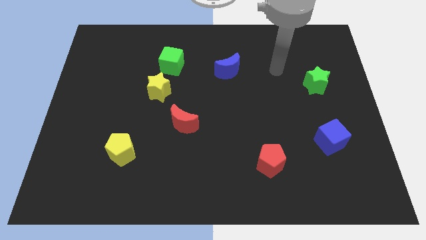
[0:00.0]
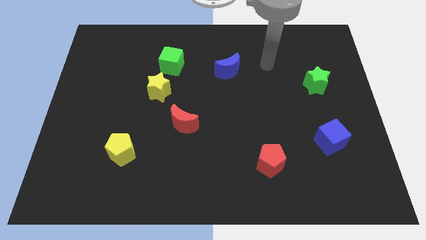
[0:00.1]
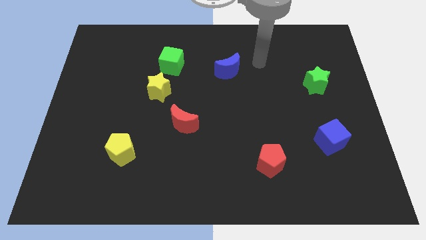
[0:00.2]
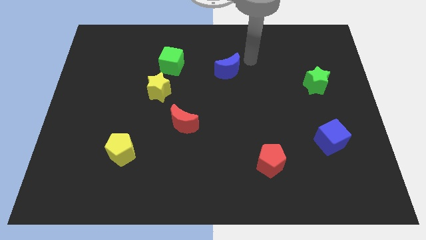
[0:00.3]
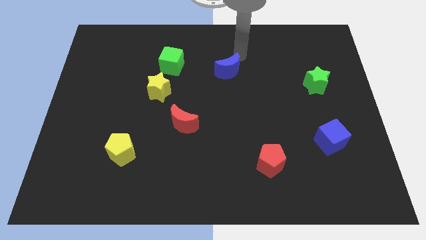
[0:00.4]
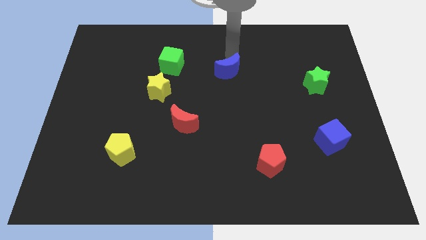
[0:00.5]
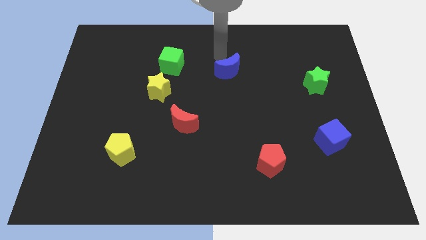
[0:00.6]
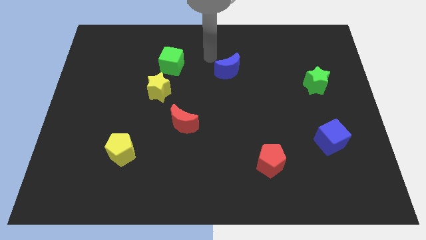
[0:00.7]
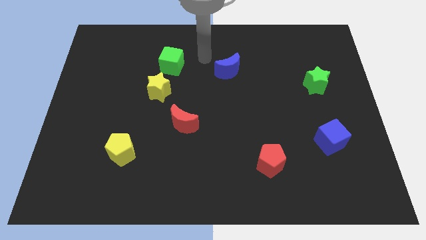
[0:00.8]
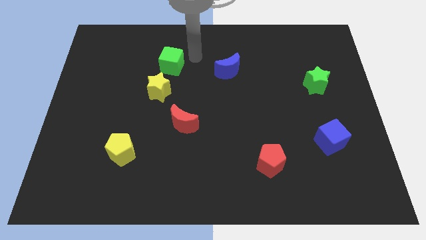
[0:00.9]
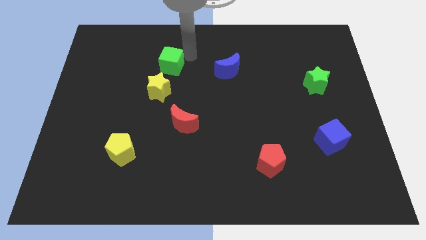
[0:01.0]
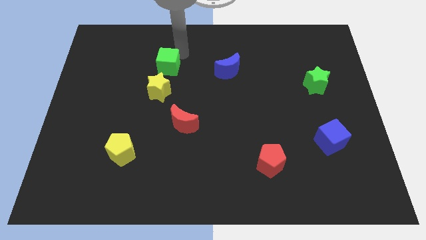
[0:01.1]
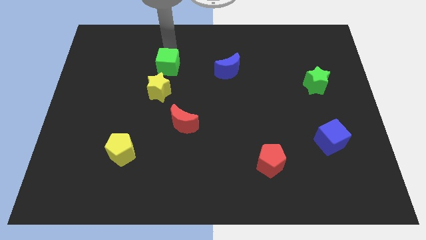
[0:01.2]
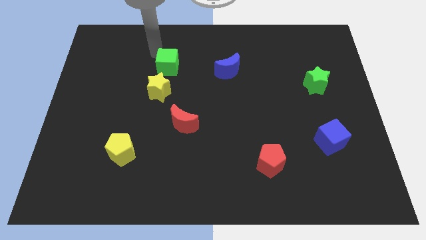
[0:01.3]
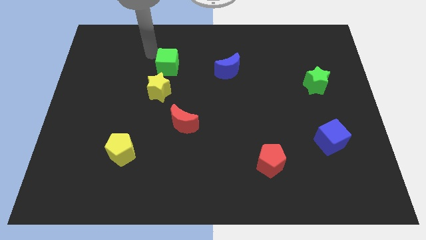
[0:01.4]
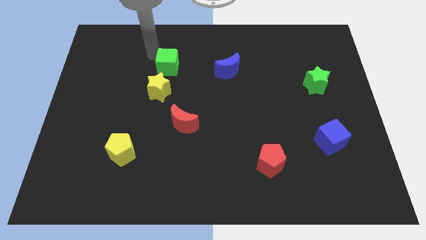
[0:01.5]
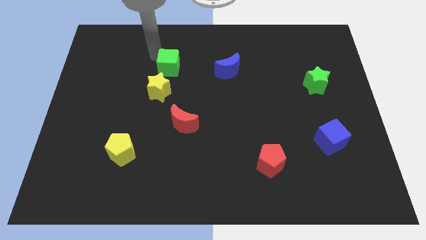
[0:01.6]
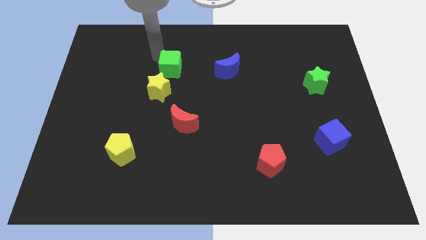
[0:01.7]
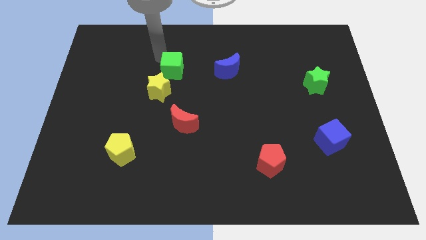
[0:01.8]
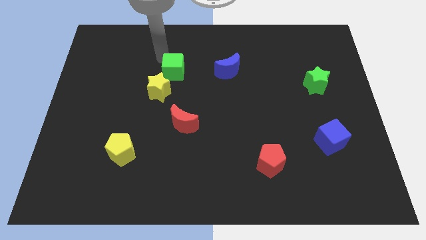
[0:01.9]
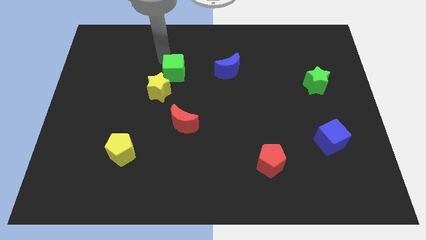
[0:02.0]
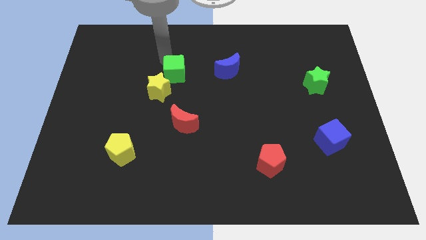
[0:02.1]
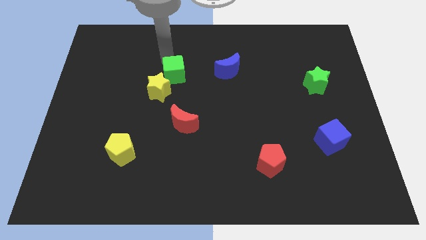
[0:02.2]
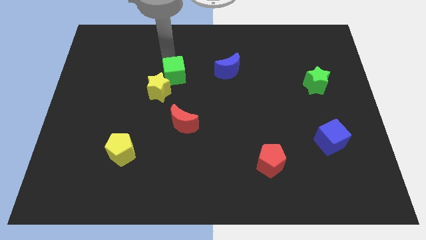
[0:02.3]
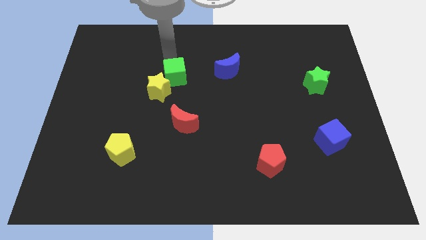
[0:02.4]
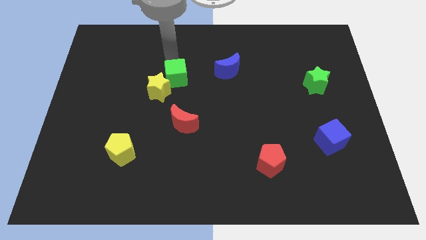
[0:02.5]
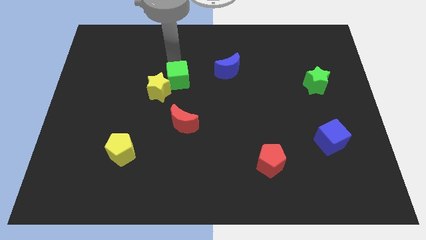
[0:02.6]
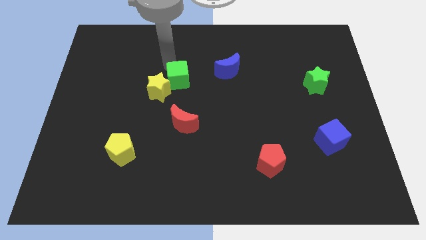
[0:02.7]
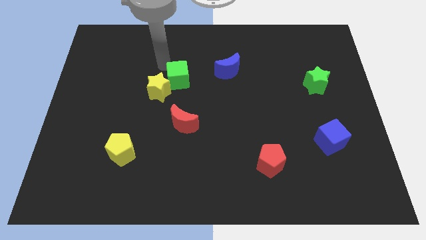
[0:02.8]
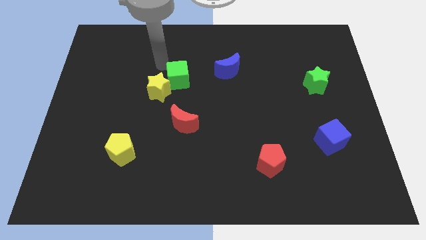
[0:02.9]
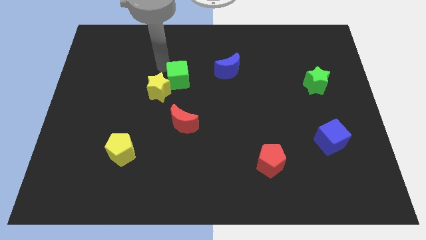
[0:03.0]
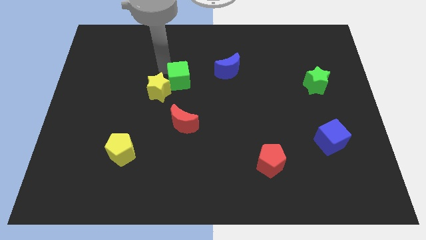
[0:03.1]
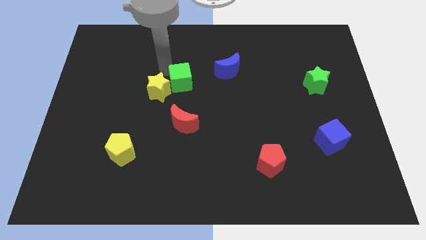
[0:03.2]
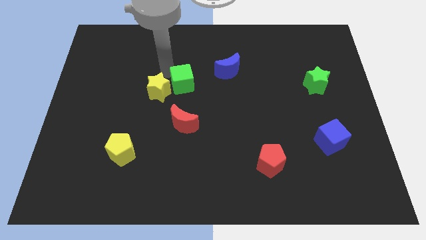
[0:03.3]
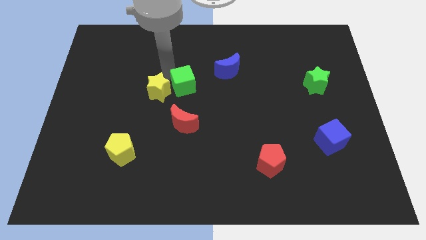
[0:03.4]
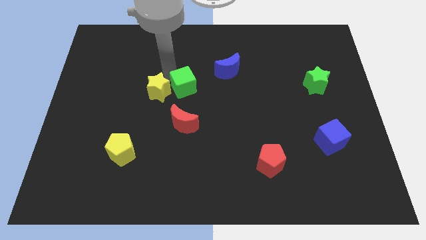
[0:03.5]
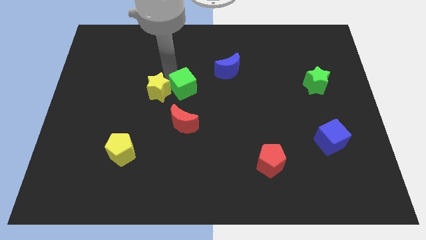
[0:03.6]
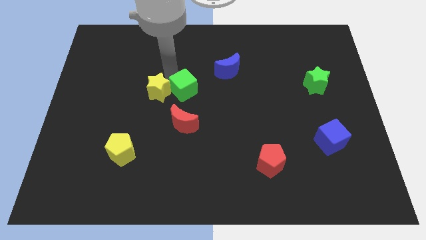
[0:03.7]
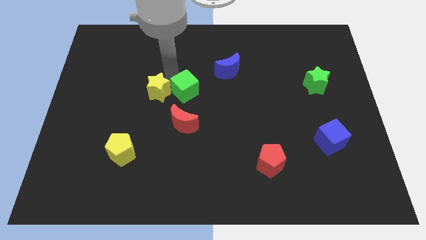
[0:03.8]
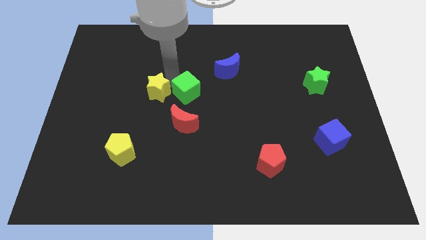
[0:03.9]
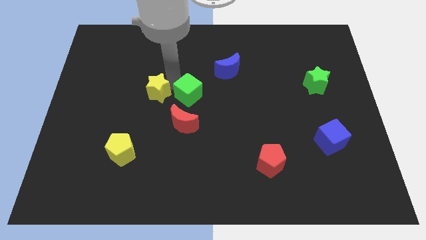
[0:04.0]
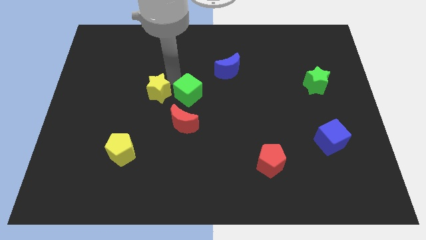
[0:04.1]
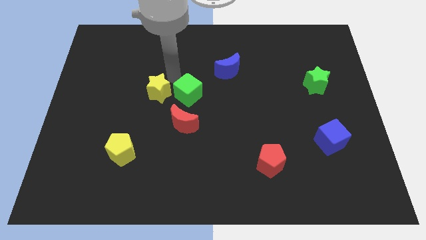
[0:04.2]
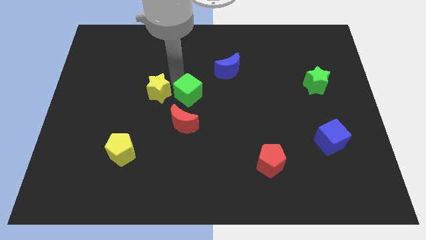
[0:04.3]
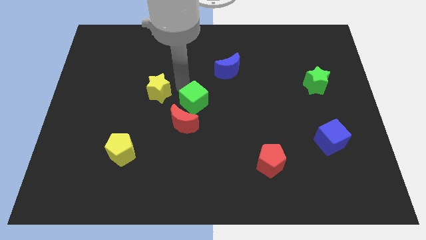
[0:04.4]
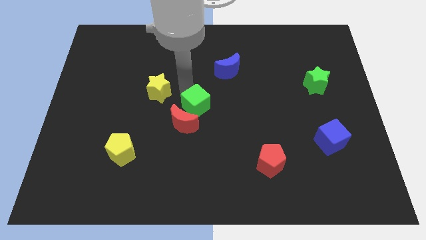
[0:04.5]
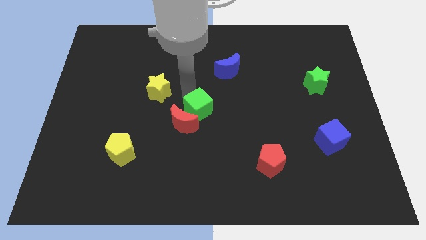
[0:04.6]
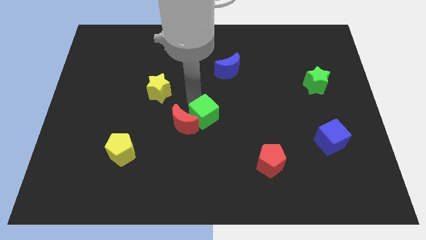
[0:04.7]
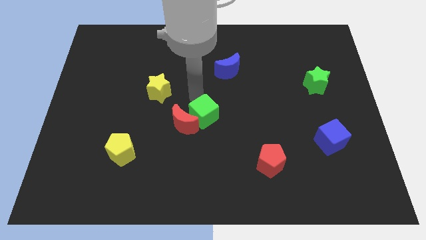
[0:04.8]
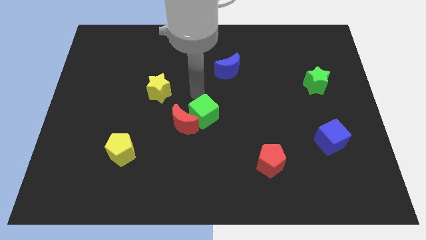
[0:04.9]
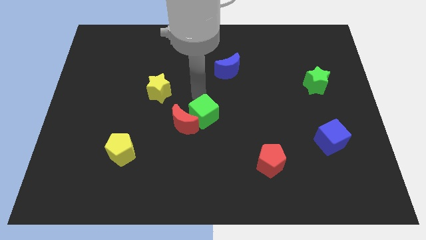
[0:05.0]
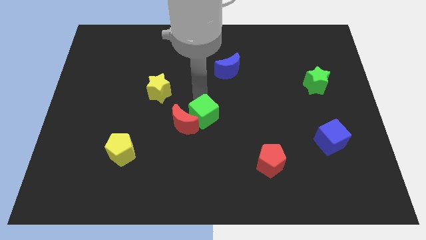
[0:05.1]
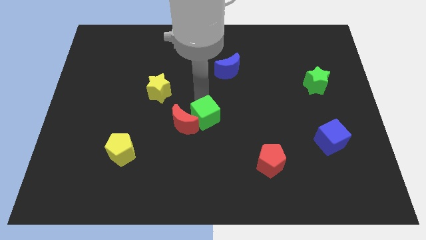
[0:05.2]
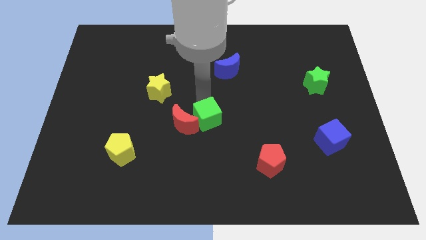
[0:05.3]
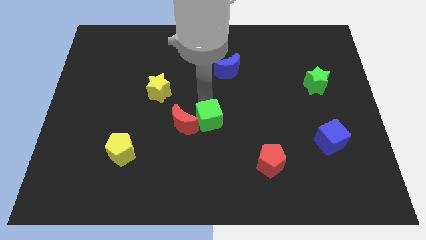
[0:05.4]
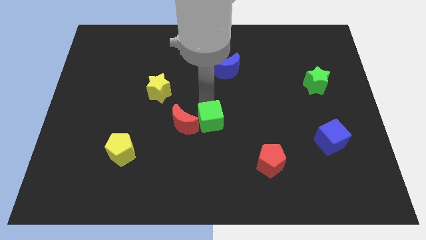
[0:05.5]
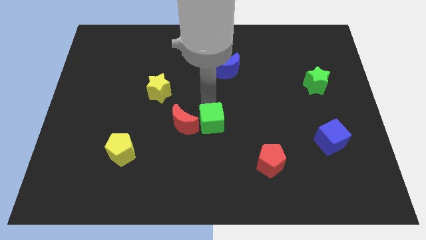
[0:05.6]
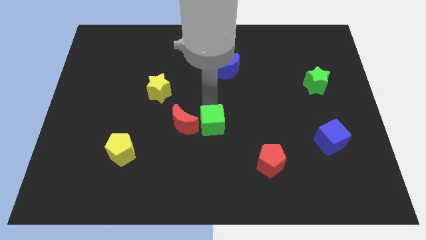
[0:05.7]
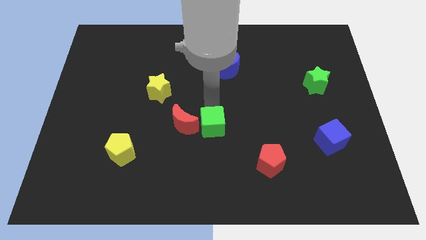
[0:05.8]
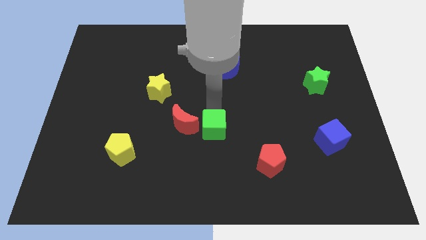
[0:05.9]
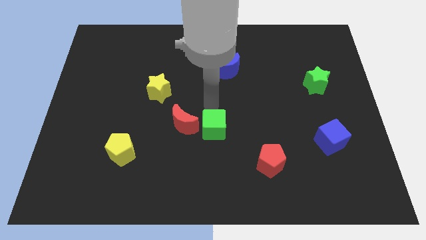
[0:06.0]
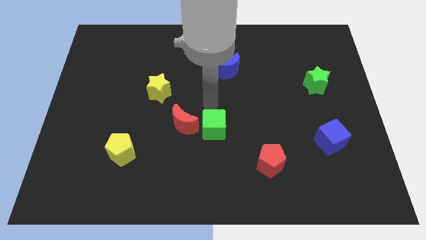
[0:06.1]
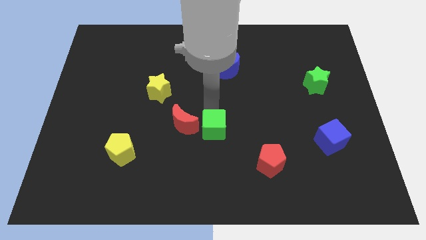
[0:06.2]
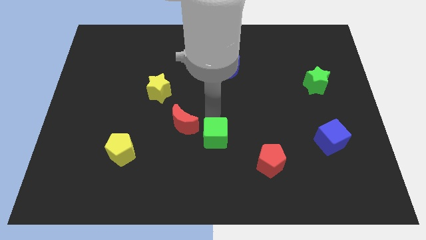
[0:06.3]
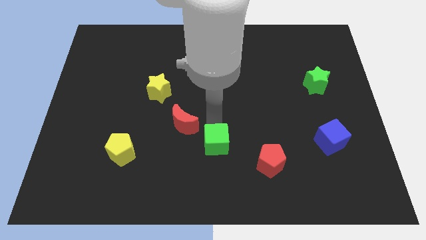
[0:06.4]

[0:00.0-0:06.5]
slide the green cube just left of the red pentagon
